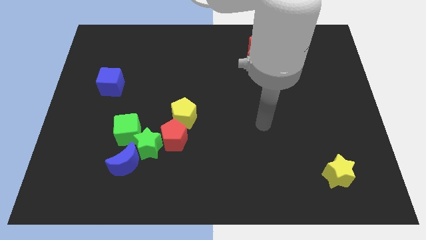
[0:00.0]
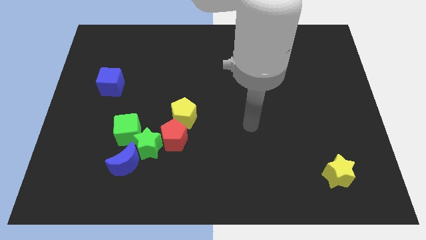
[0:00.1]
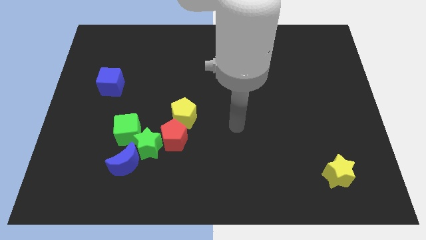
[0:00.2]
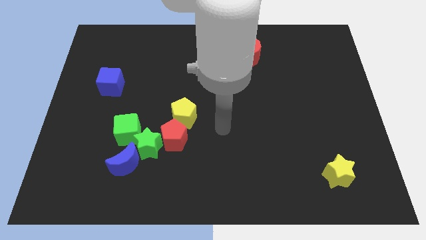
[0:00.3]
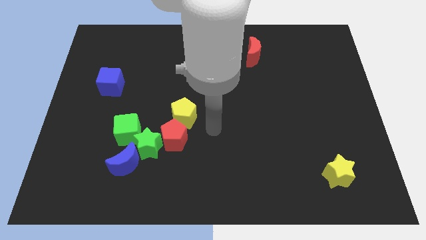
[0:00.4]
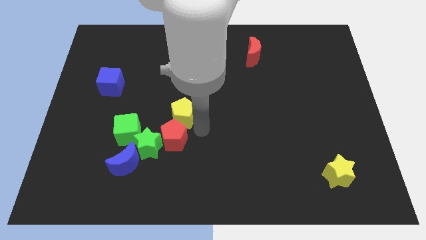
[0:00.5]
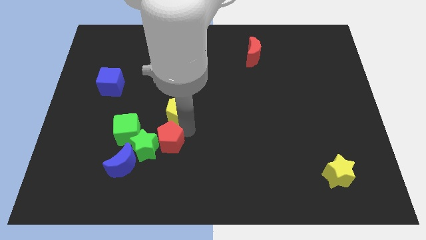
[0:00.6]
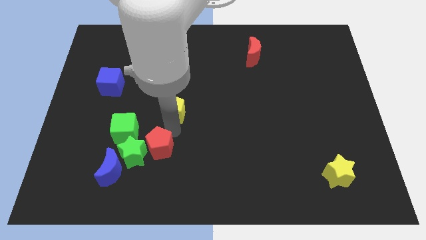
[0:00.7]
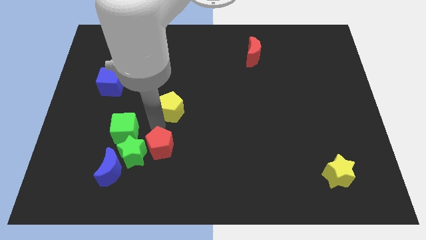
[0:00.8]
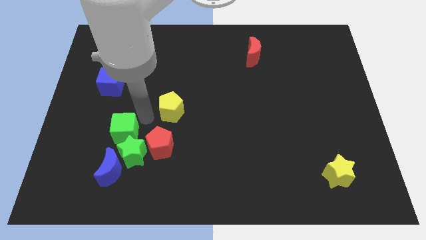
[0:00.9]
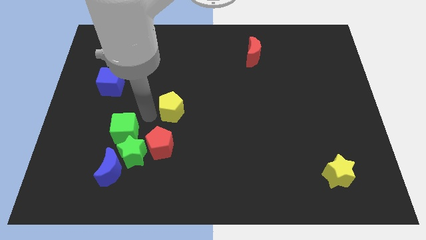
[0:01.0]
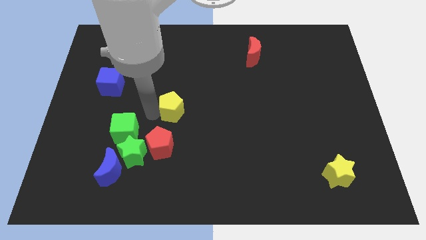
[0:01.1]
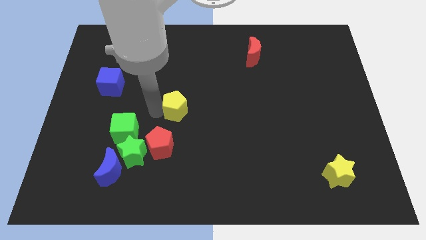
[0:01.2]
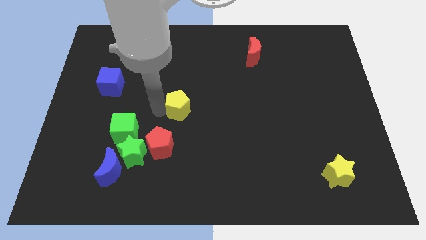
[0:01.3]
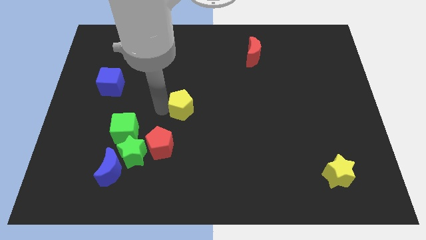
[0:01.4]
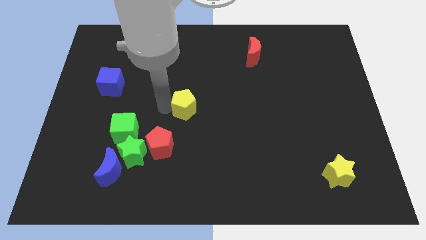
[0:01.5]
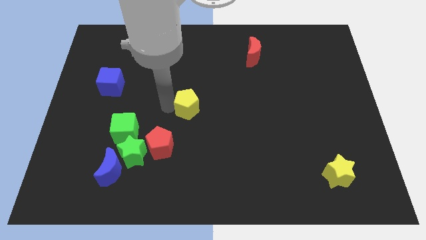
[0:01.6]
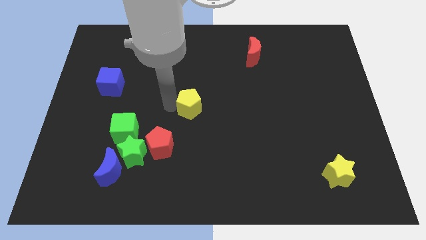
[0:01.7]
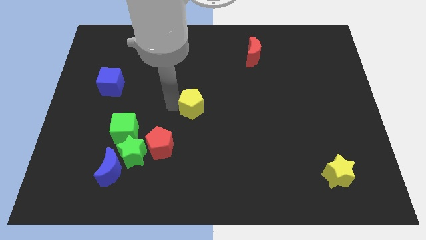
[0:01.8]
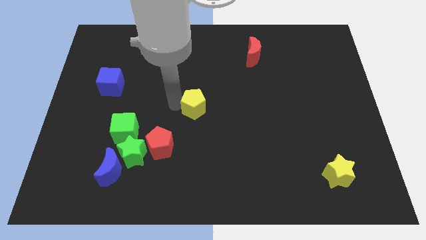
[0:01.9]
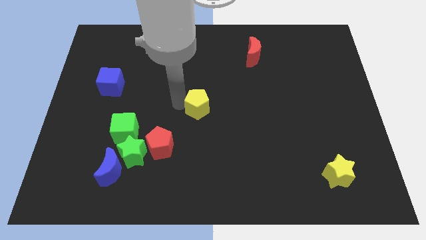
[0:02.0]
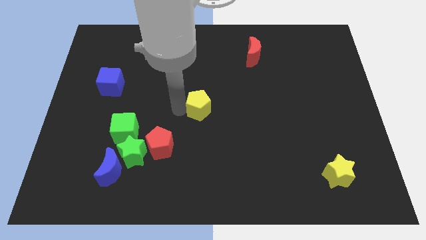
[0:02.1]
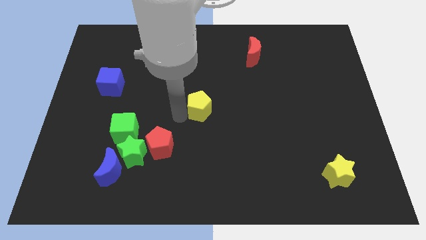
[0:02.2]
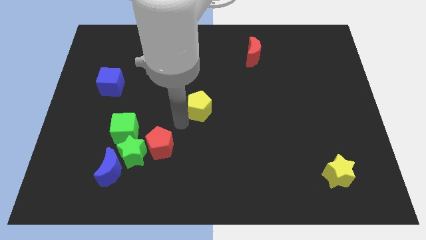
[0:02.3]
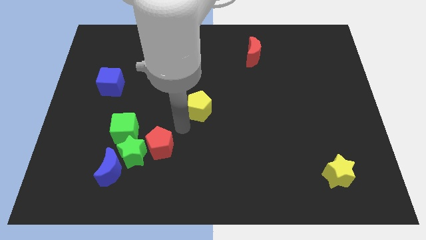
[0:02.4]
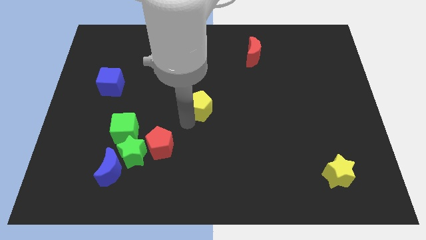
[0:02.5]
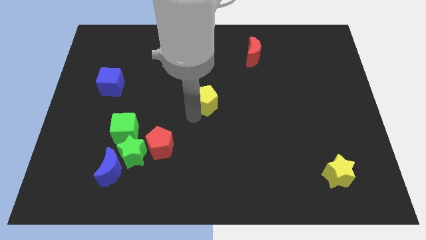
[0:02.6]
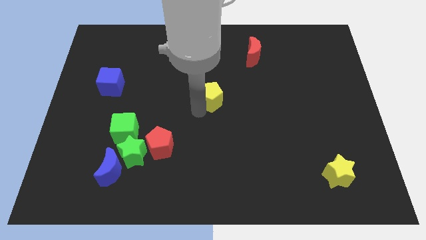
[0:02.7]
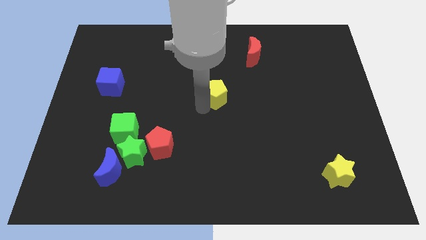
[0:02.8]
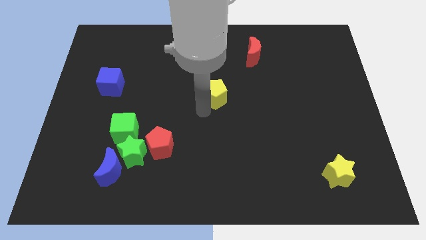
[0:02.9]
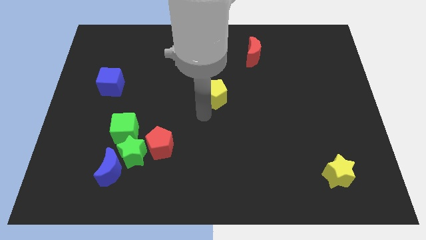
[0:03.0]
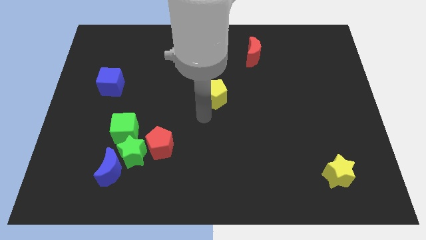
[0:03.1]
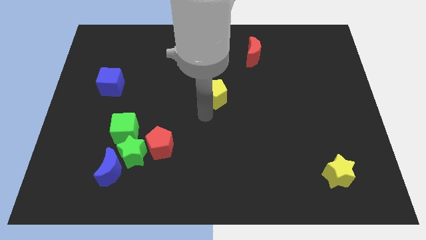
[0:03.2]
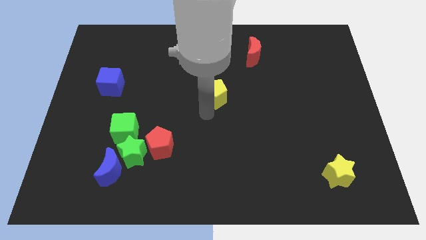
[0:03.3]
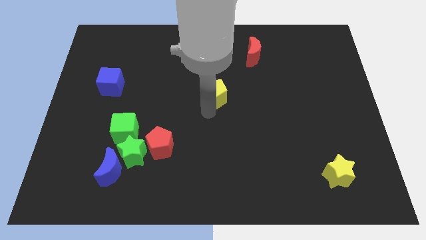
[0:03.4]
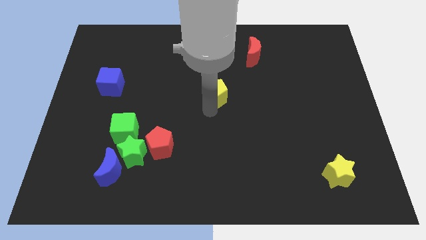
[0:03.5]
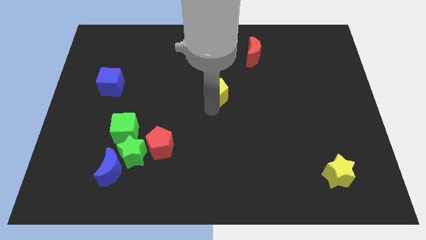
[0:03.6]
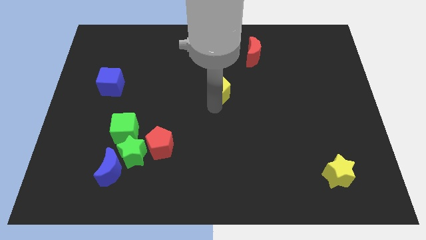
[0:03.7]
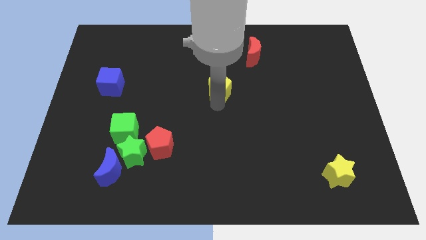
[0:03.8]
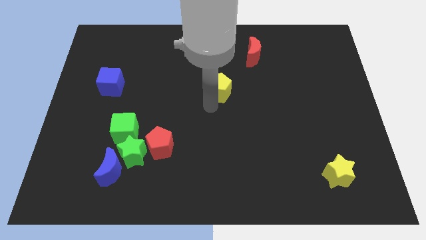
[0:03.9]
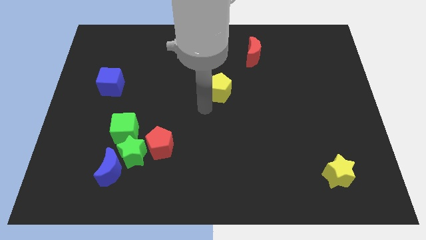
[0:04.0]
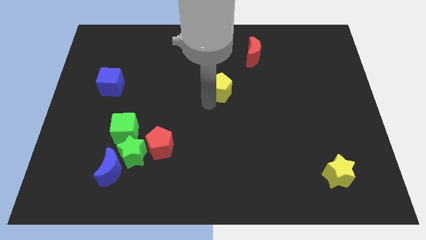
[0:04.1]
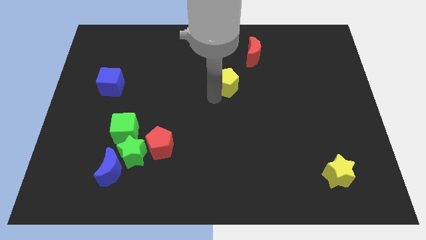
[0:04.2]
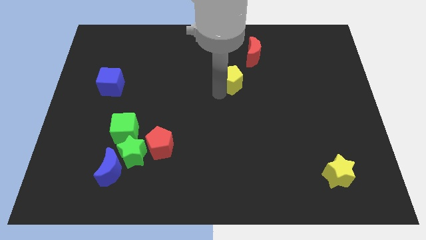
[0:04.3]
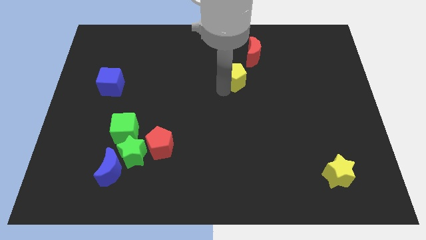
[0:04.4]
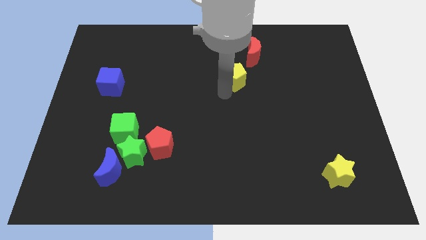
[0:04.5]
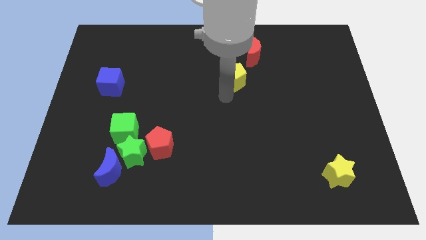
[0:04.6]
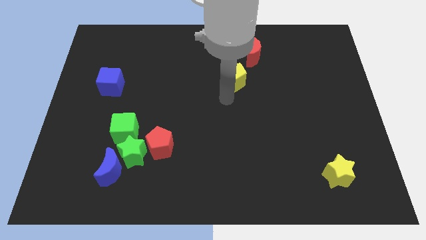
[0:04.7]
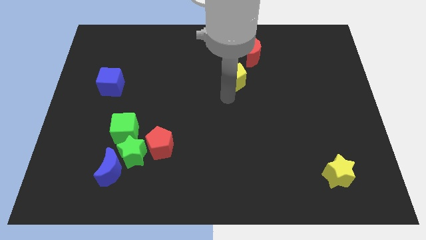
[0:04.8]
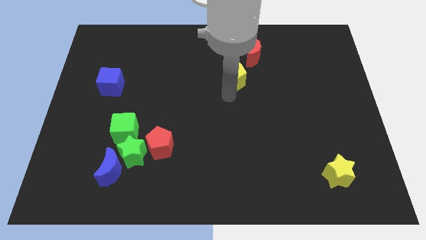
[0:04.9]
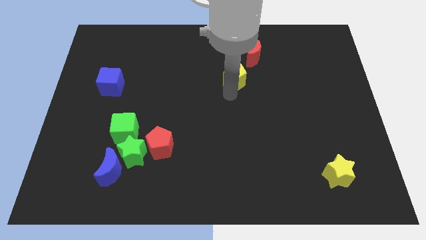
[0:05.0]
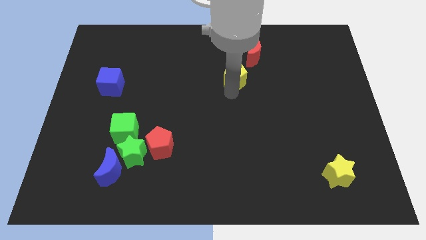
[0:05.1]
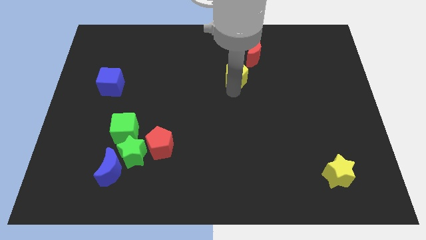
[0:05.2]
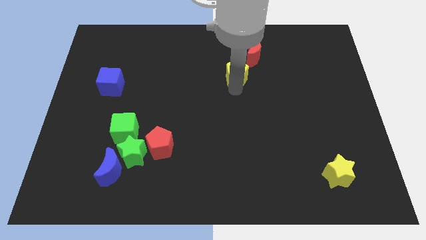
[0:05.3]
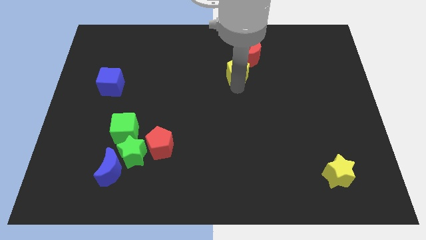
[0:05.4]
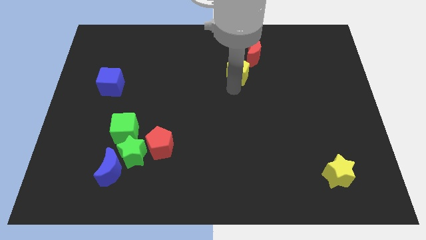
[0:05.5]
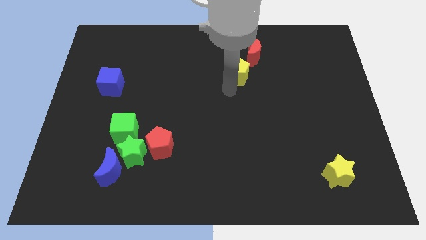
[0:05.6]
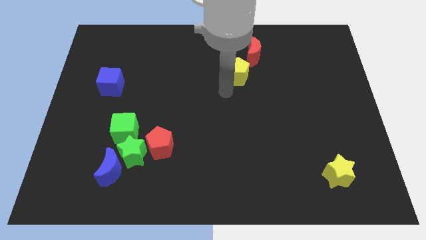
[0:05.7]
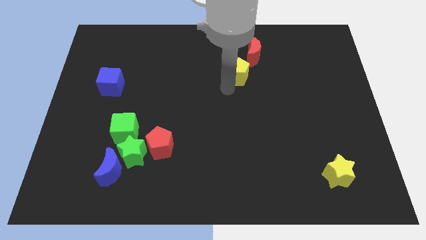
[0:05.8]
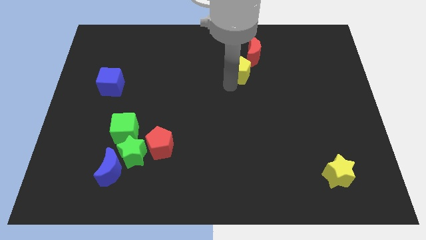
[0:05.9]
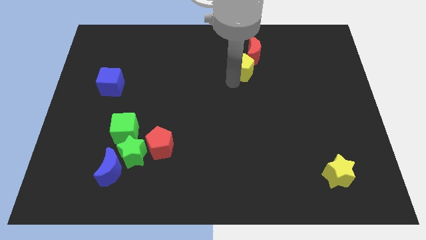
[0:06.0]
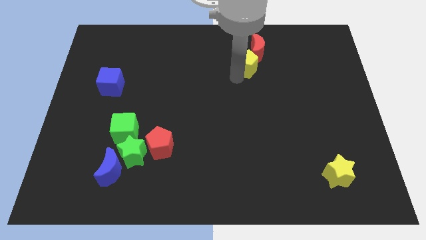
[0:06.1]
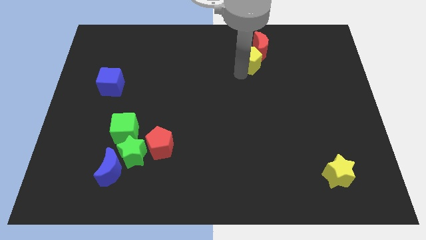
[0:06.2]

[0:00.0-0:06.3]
move the yellow pentagon towards the red moon

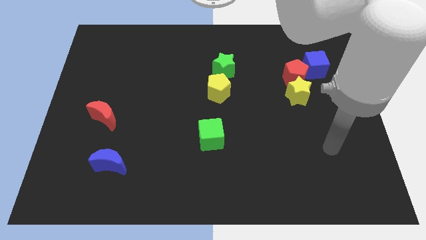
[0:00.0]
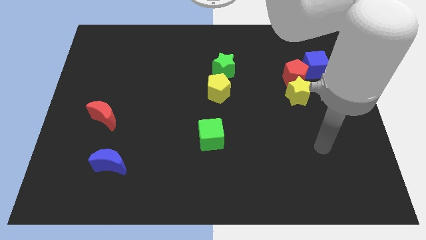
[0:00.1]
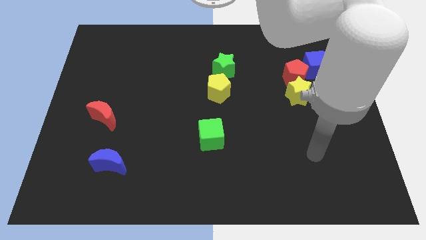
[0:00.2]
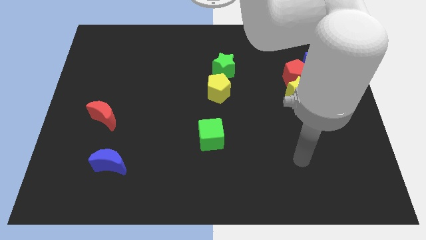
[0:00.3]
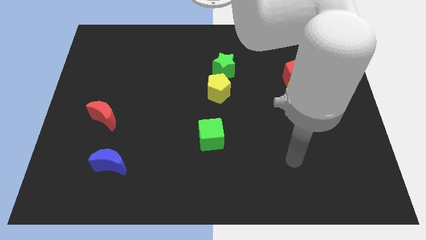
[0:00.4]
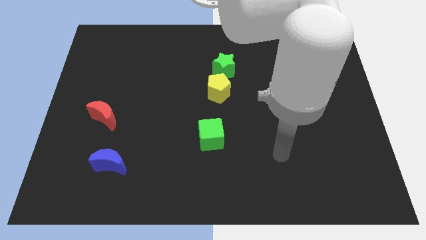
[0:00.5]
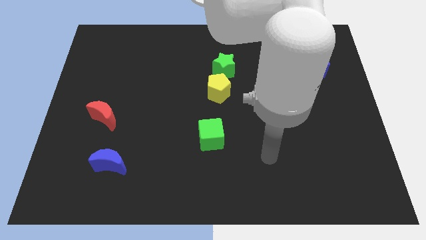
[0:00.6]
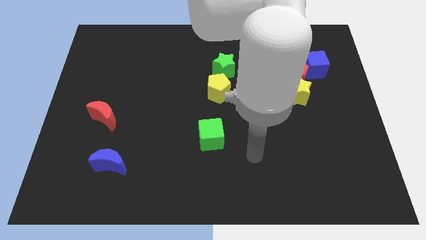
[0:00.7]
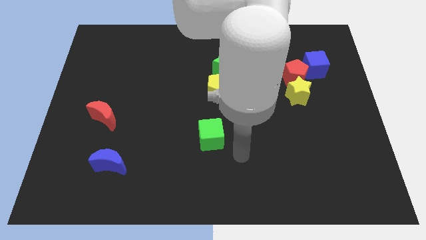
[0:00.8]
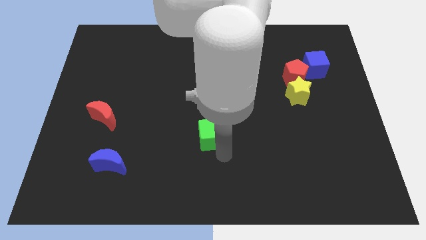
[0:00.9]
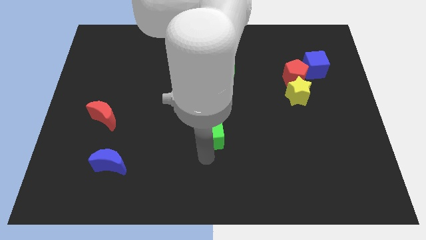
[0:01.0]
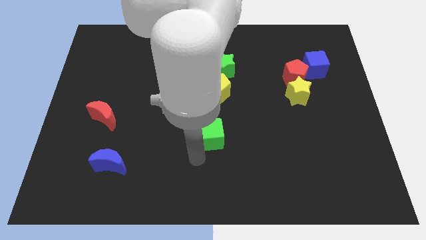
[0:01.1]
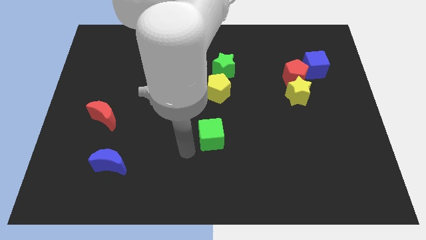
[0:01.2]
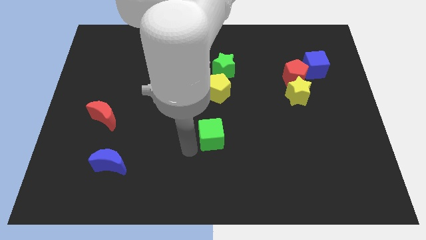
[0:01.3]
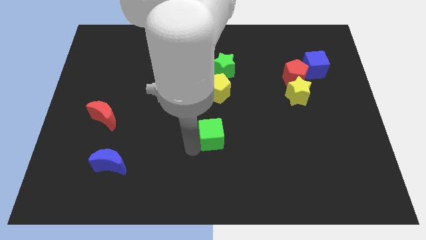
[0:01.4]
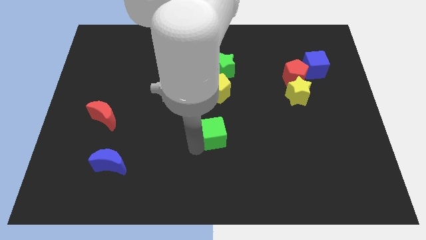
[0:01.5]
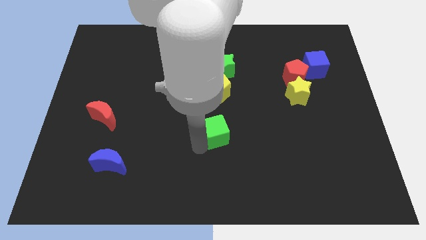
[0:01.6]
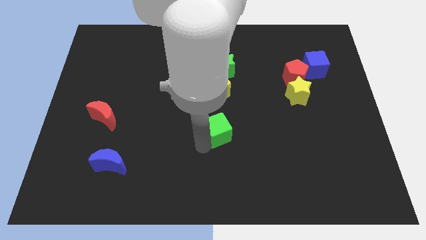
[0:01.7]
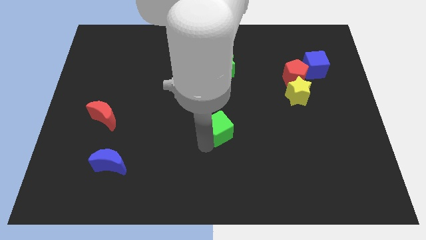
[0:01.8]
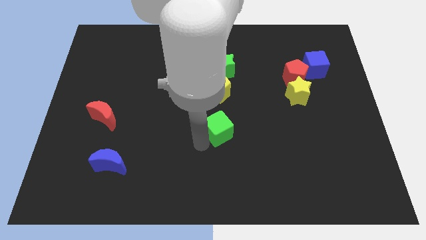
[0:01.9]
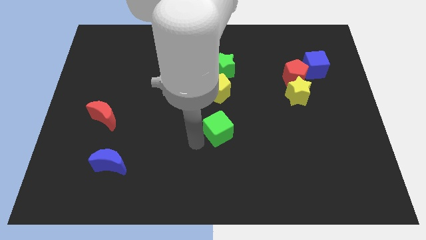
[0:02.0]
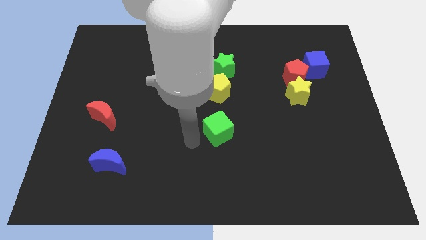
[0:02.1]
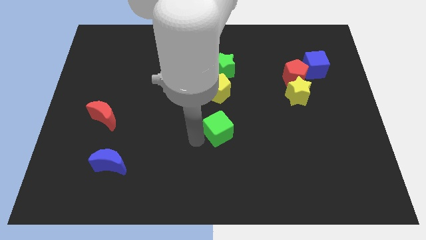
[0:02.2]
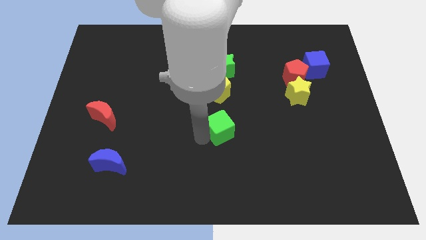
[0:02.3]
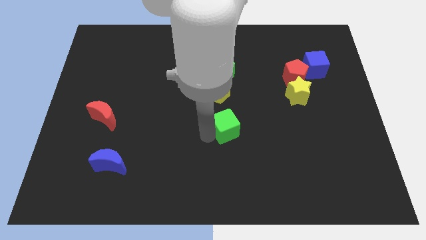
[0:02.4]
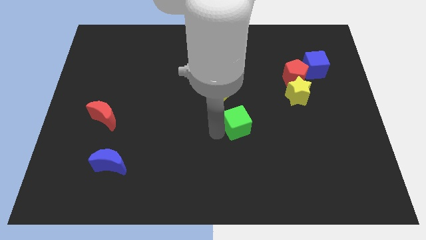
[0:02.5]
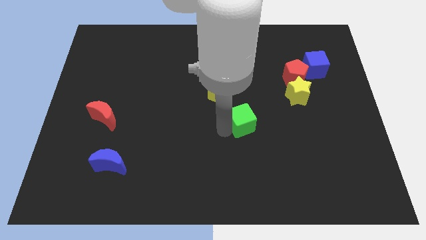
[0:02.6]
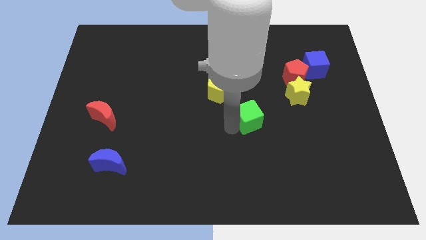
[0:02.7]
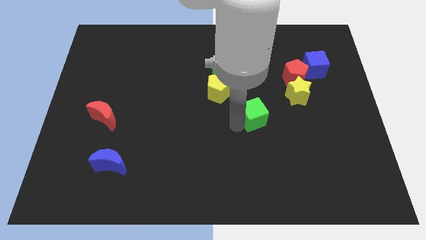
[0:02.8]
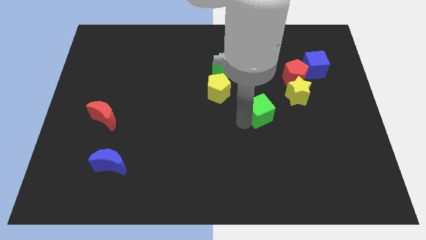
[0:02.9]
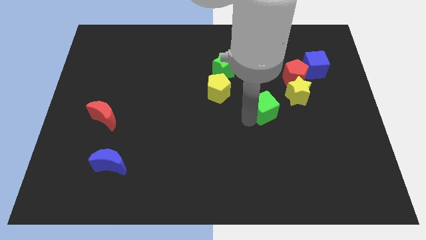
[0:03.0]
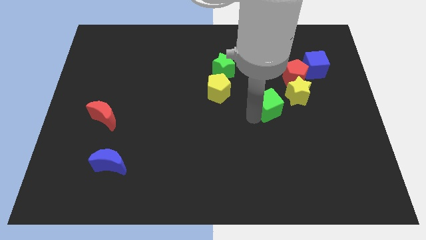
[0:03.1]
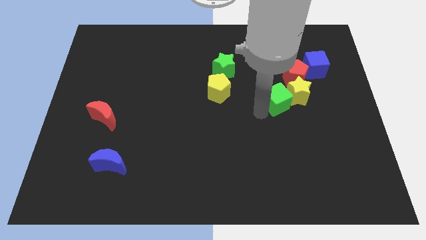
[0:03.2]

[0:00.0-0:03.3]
push the green cube to the yellow star
